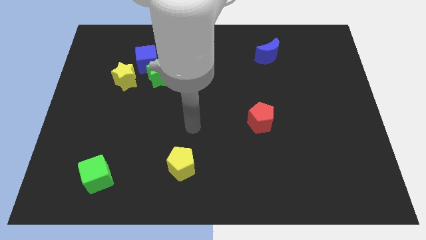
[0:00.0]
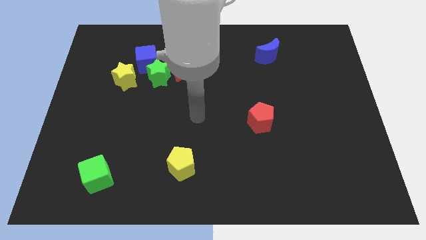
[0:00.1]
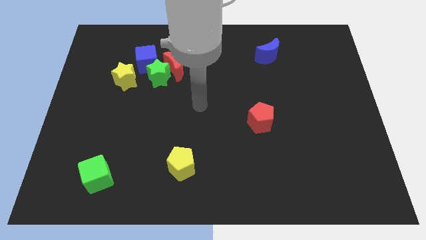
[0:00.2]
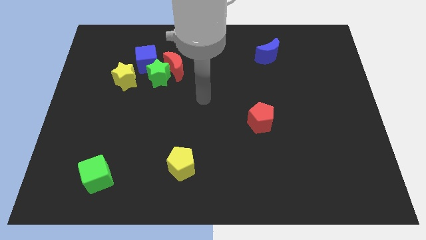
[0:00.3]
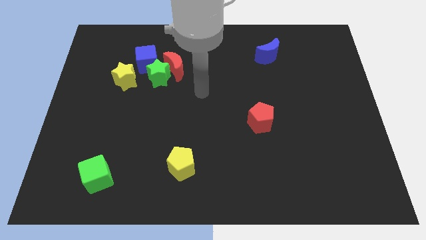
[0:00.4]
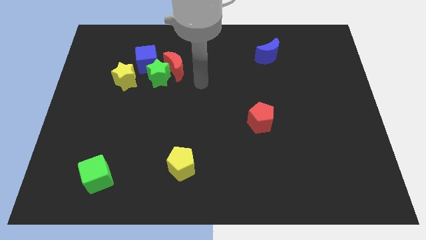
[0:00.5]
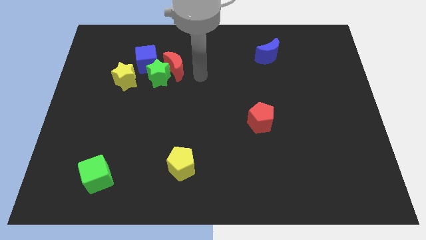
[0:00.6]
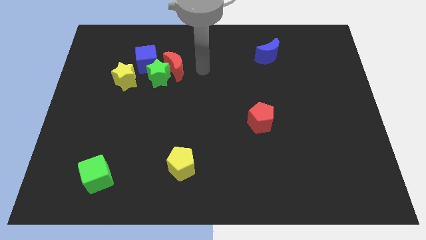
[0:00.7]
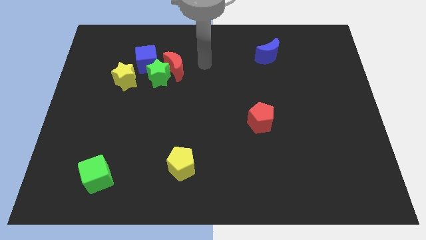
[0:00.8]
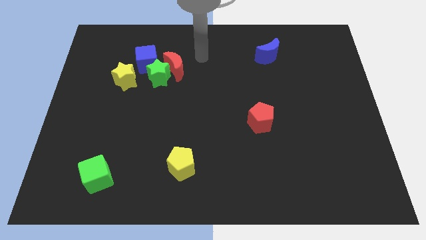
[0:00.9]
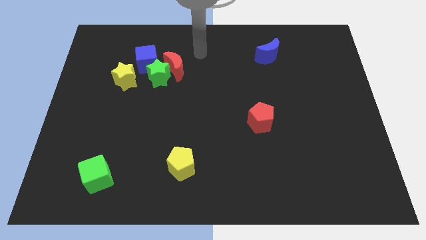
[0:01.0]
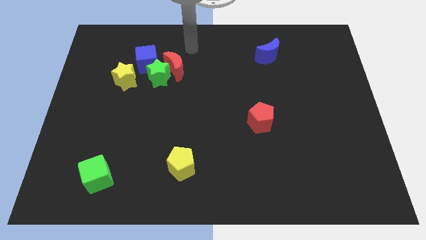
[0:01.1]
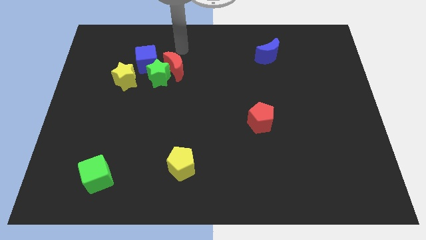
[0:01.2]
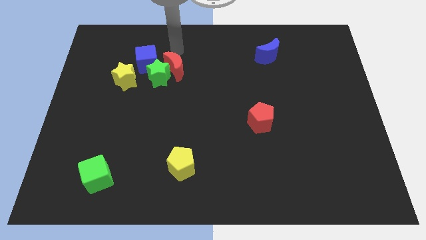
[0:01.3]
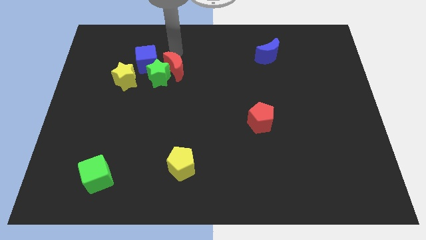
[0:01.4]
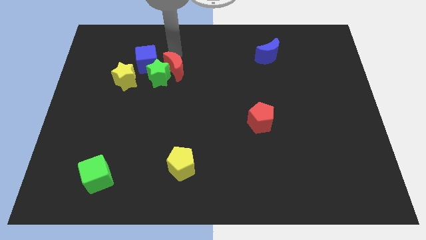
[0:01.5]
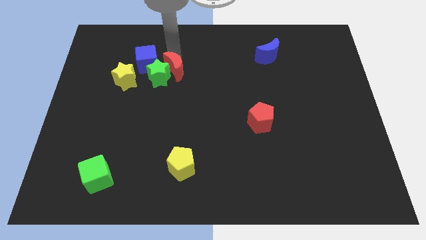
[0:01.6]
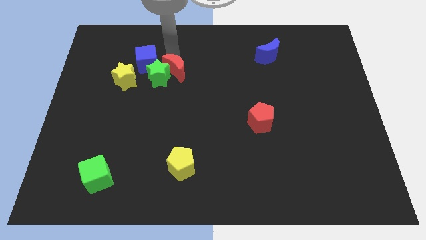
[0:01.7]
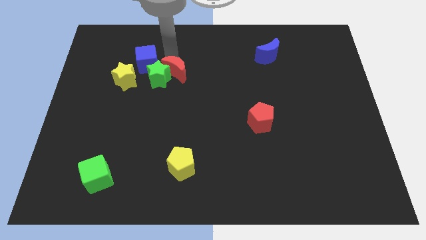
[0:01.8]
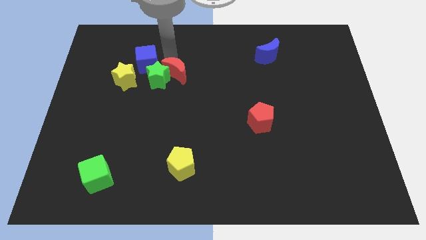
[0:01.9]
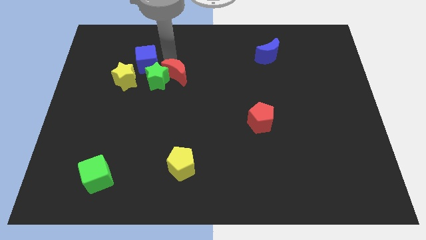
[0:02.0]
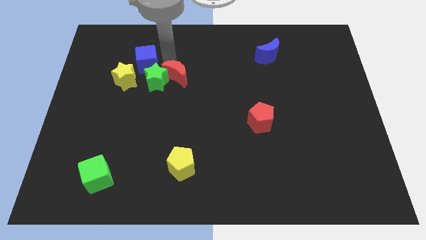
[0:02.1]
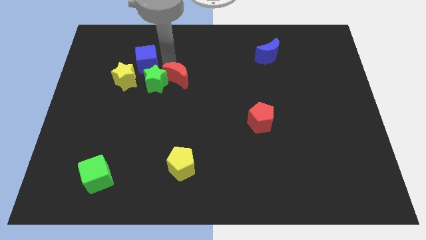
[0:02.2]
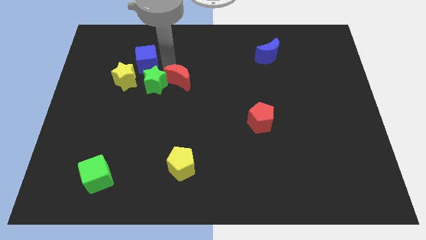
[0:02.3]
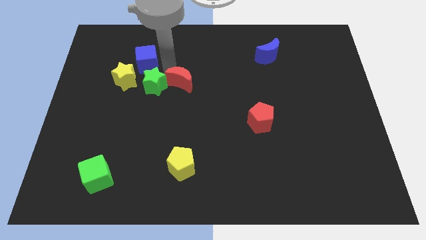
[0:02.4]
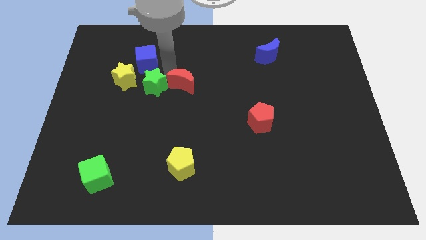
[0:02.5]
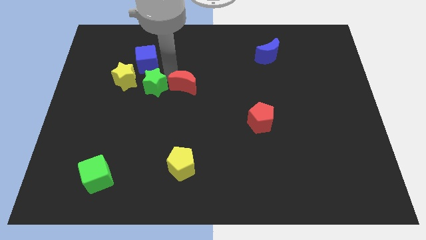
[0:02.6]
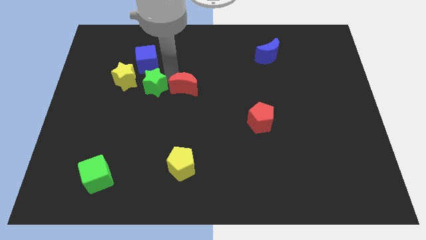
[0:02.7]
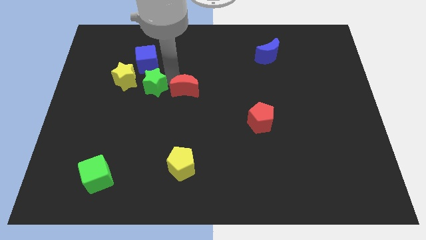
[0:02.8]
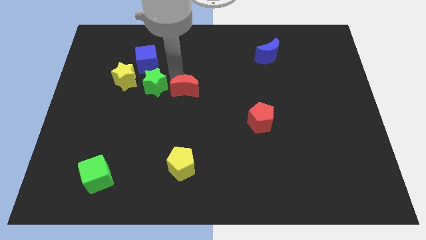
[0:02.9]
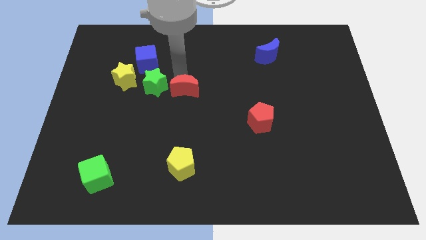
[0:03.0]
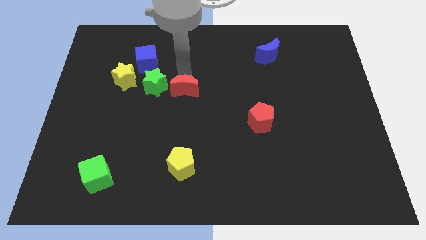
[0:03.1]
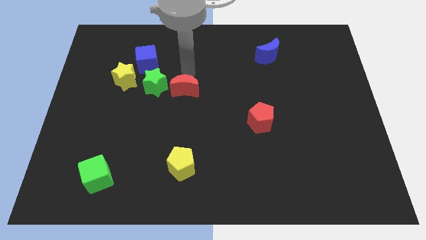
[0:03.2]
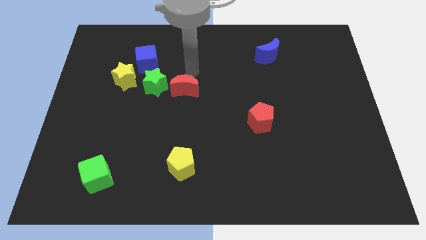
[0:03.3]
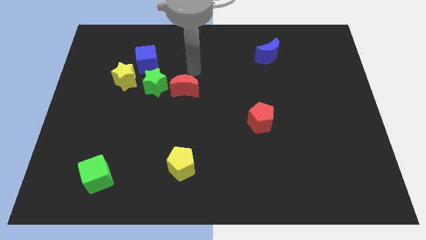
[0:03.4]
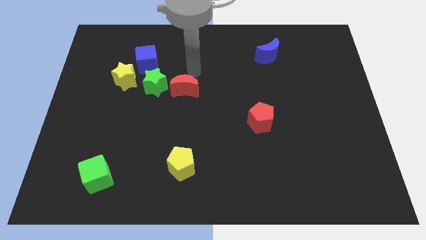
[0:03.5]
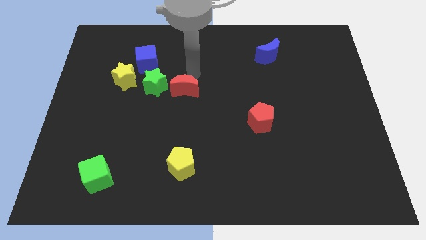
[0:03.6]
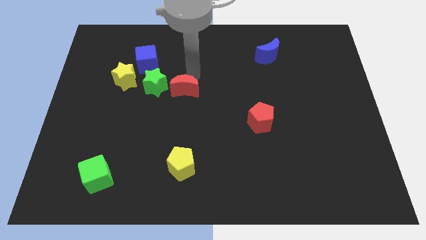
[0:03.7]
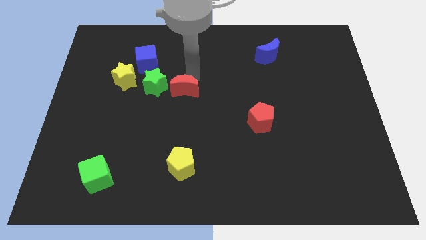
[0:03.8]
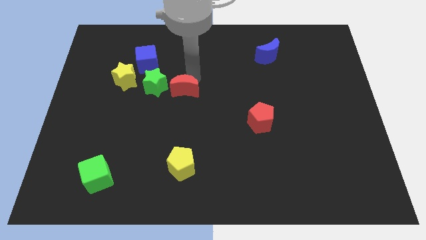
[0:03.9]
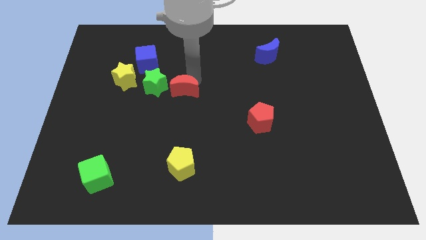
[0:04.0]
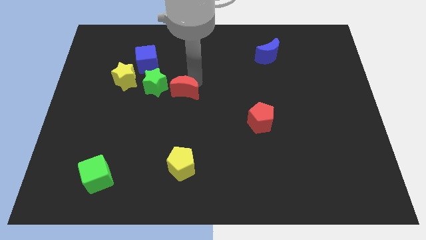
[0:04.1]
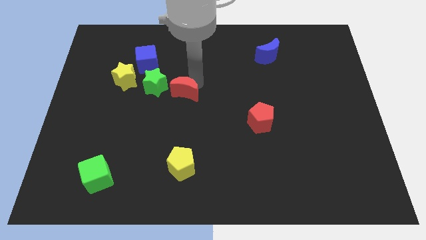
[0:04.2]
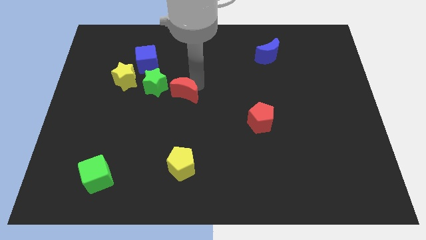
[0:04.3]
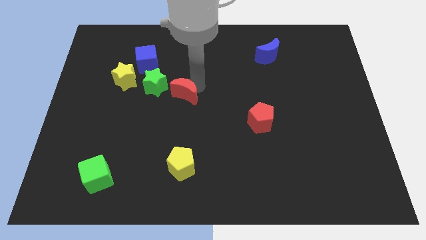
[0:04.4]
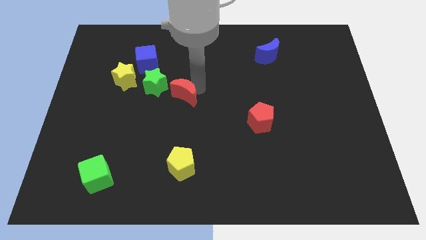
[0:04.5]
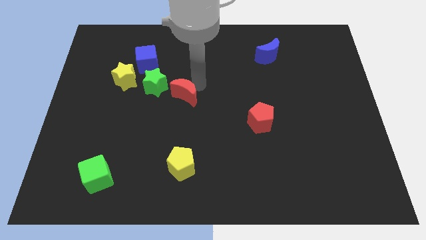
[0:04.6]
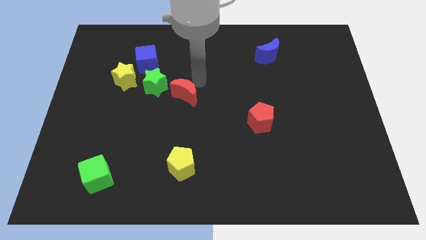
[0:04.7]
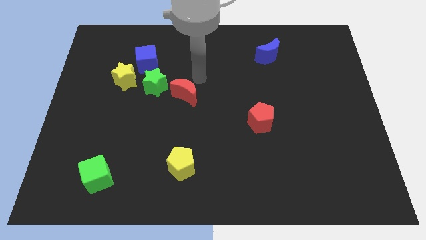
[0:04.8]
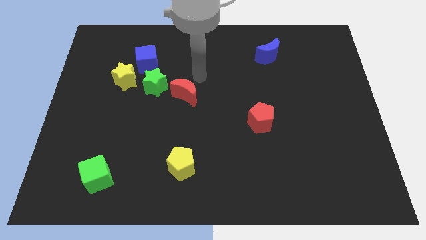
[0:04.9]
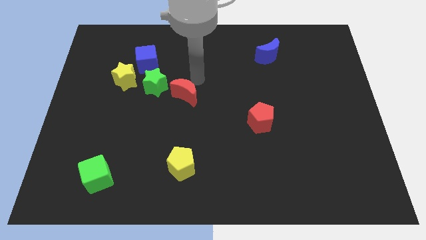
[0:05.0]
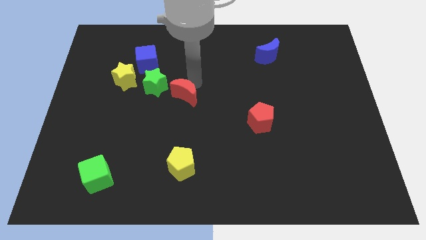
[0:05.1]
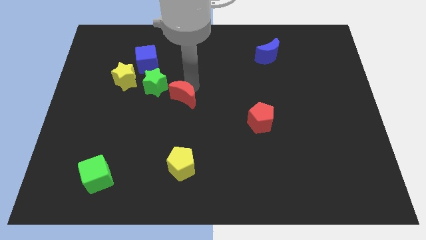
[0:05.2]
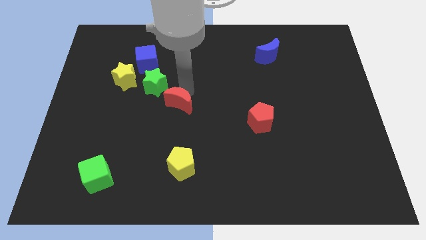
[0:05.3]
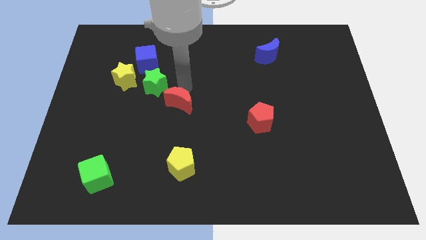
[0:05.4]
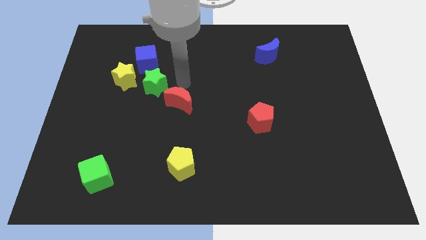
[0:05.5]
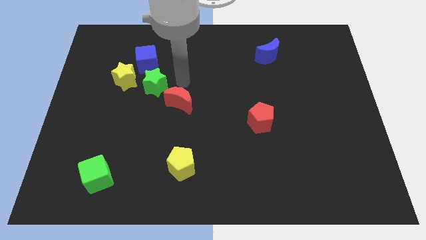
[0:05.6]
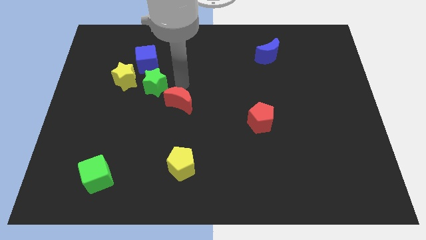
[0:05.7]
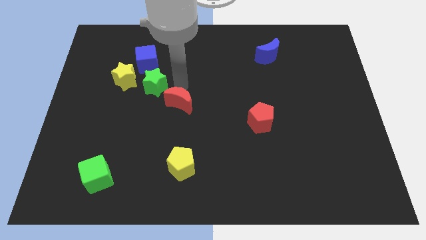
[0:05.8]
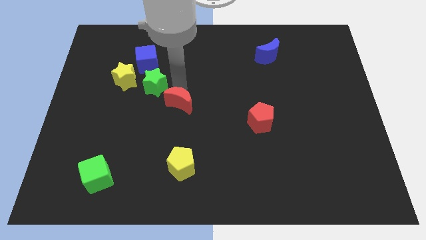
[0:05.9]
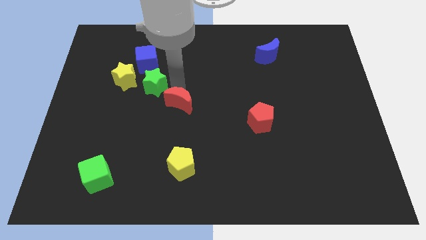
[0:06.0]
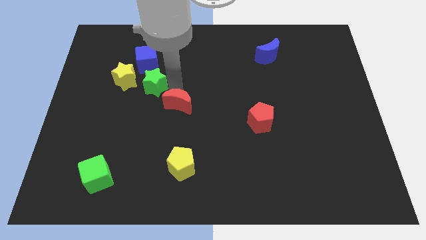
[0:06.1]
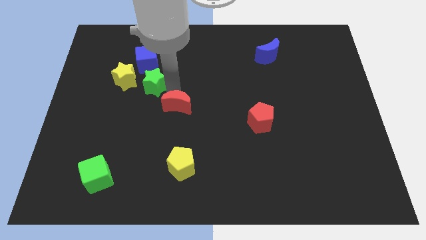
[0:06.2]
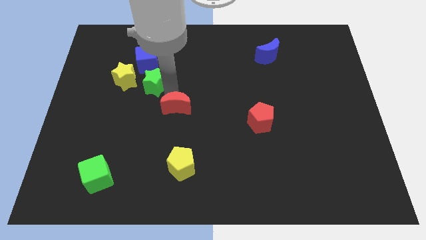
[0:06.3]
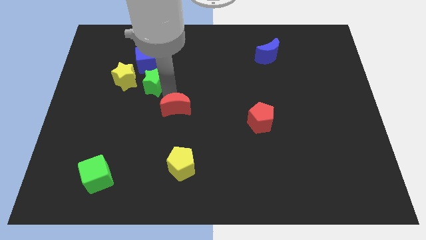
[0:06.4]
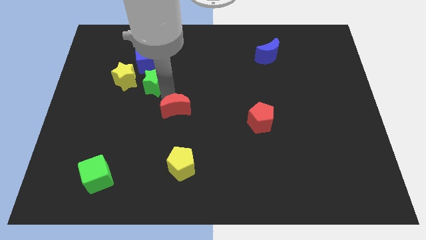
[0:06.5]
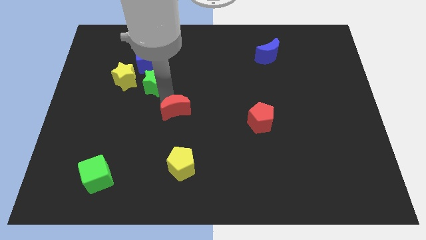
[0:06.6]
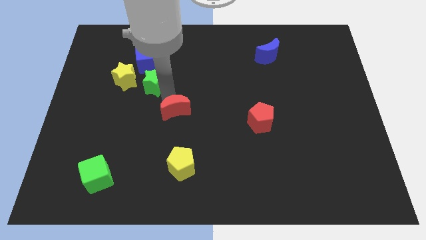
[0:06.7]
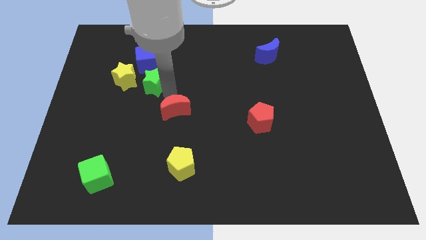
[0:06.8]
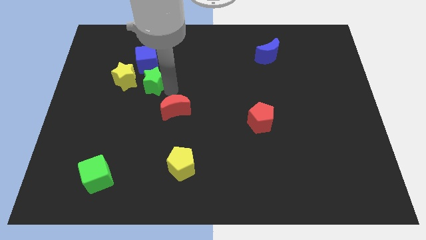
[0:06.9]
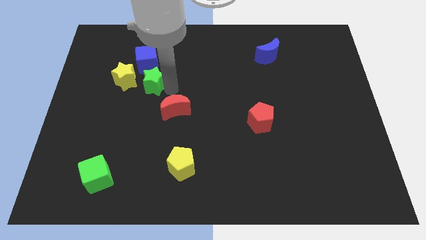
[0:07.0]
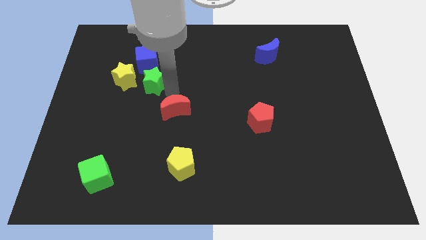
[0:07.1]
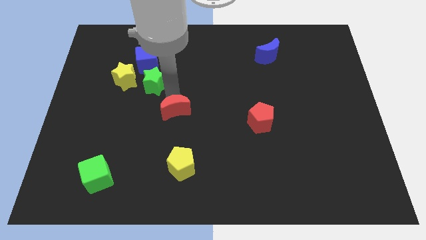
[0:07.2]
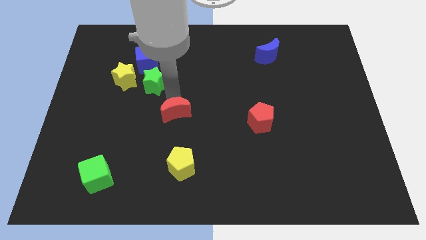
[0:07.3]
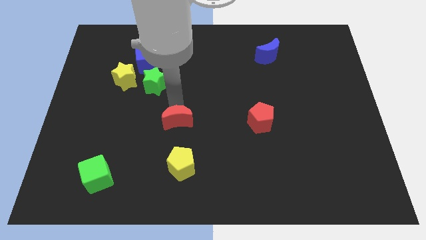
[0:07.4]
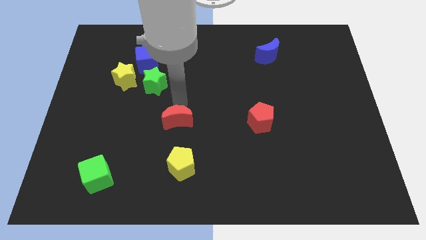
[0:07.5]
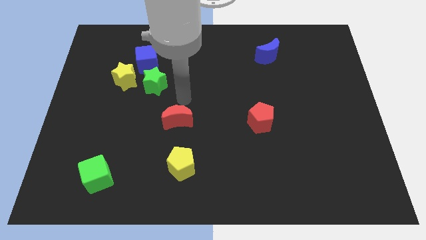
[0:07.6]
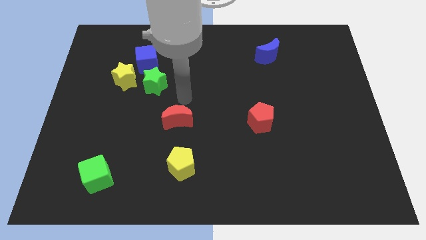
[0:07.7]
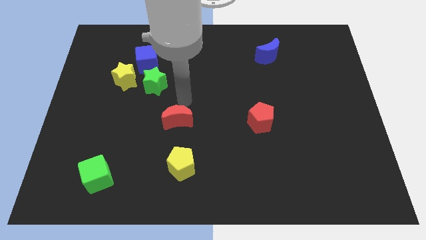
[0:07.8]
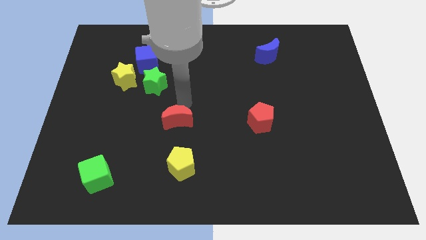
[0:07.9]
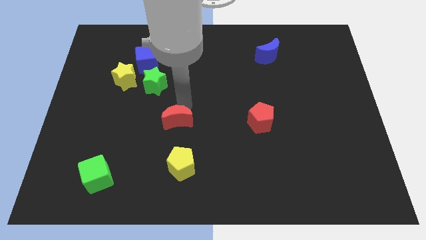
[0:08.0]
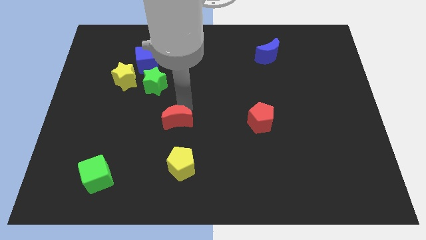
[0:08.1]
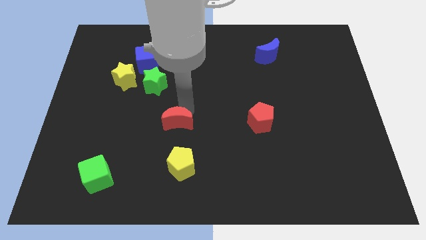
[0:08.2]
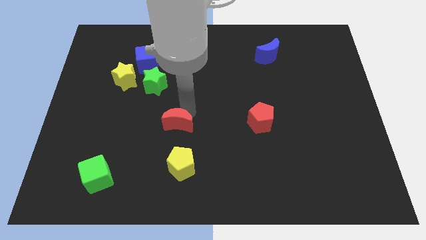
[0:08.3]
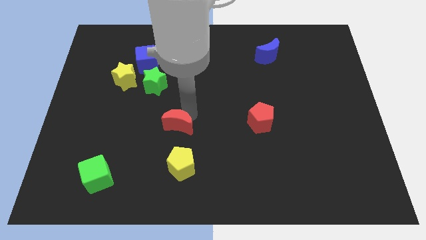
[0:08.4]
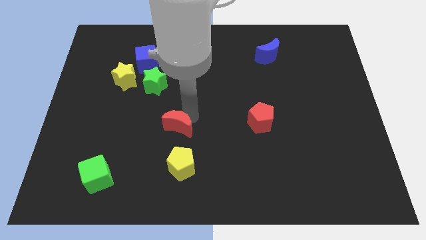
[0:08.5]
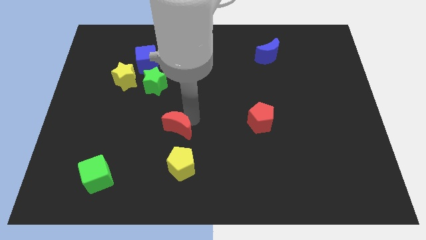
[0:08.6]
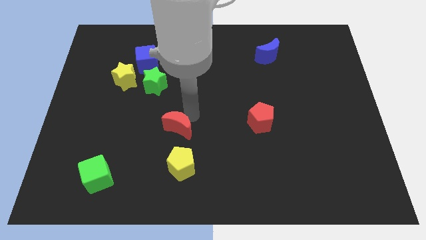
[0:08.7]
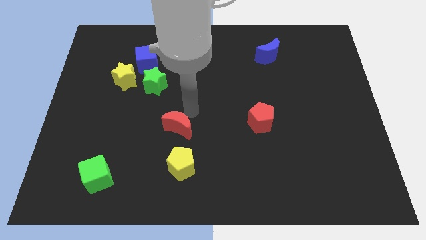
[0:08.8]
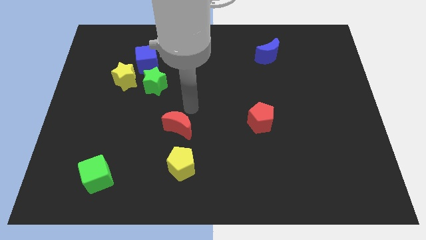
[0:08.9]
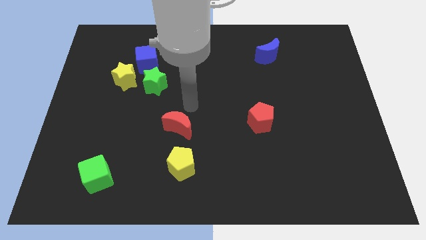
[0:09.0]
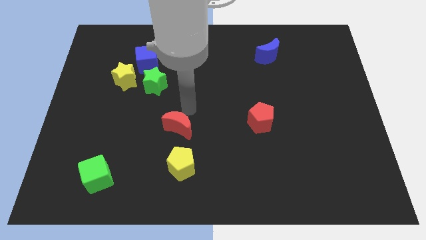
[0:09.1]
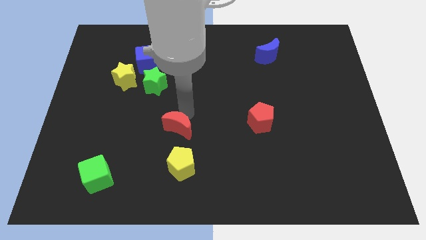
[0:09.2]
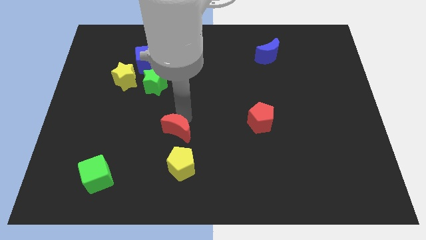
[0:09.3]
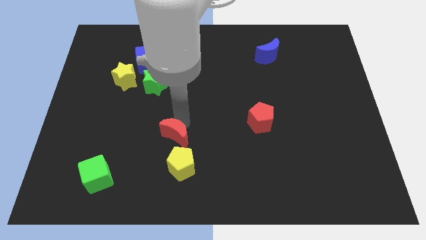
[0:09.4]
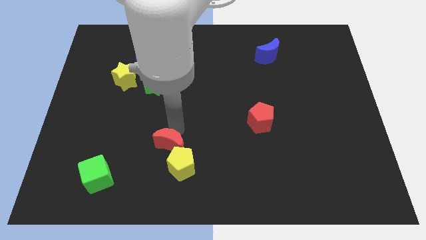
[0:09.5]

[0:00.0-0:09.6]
move the red moon towards the yellow pentagon
